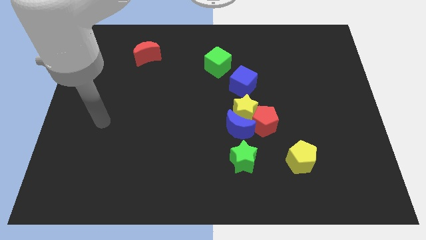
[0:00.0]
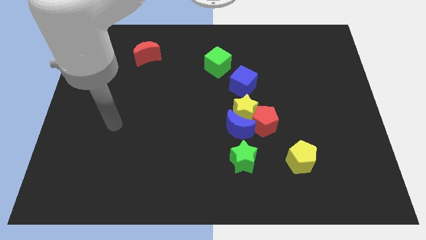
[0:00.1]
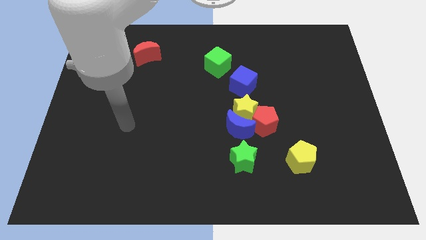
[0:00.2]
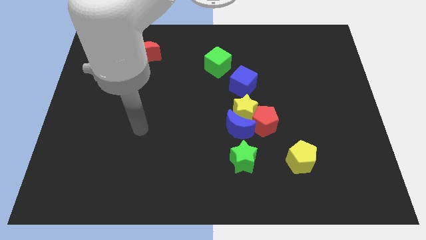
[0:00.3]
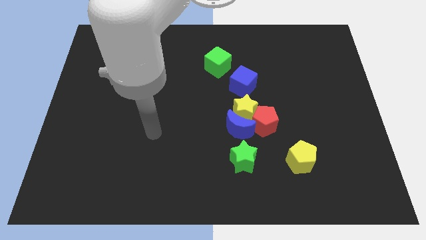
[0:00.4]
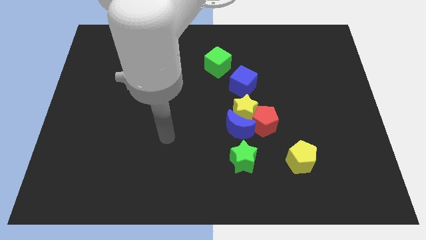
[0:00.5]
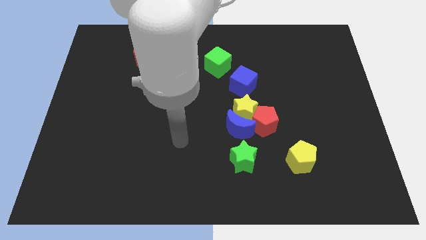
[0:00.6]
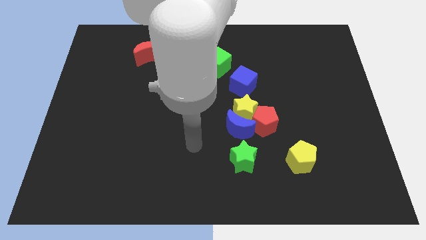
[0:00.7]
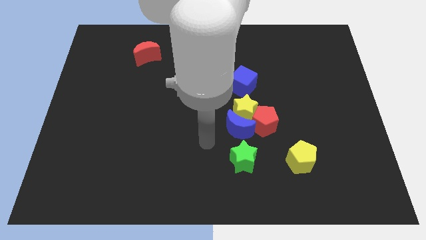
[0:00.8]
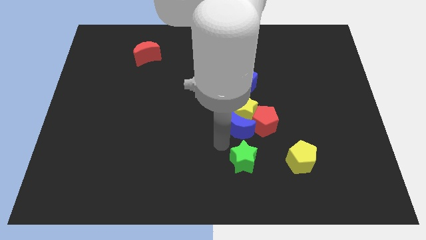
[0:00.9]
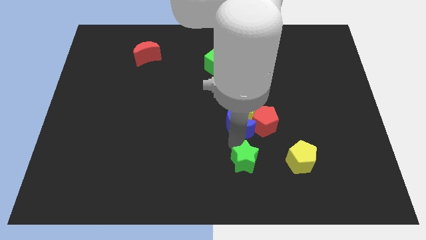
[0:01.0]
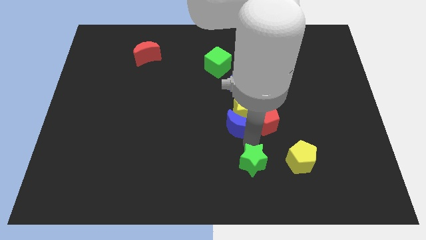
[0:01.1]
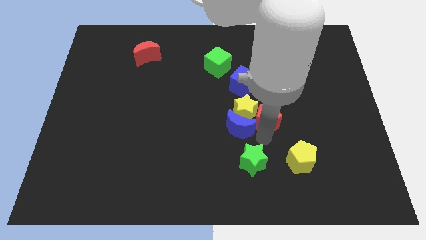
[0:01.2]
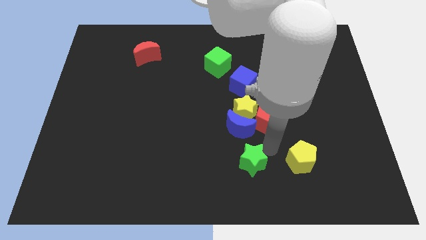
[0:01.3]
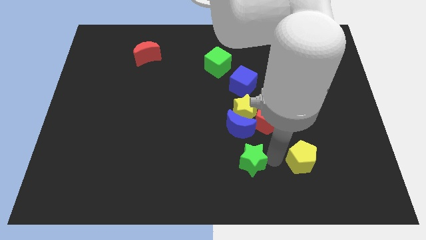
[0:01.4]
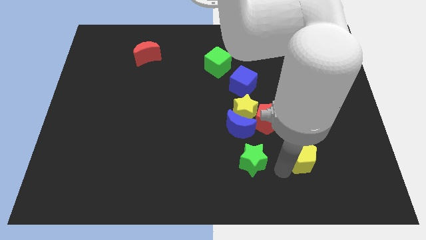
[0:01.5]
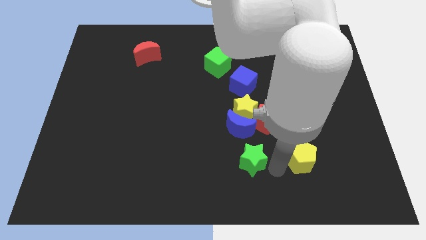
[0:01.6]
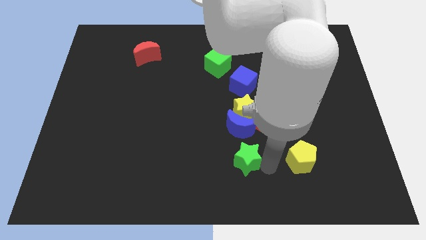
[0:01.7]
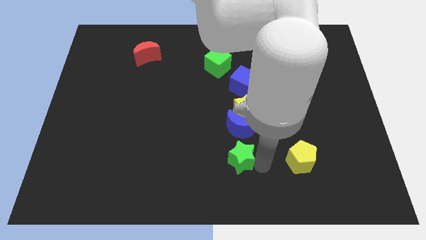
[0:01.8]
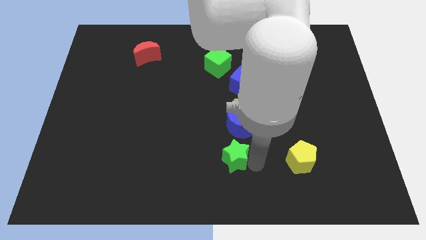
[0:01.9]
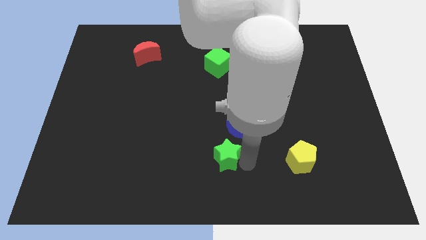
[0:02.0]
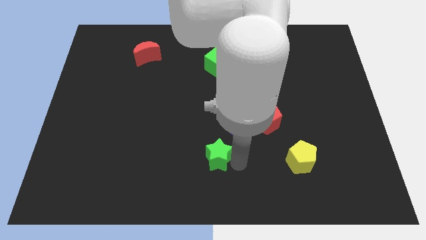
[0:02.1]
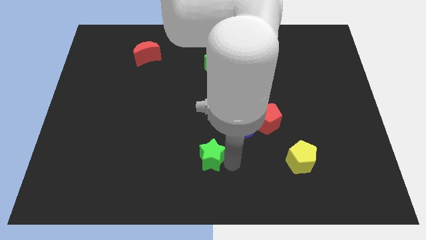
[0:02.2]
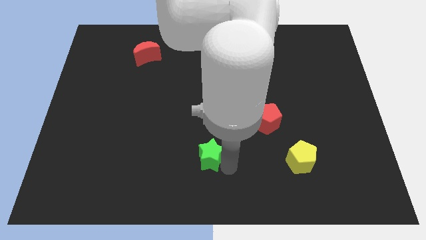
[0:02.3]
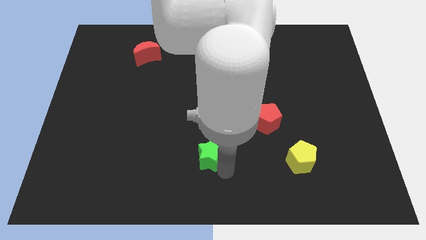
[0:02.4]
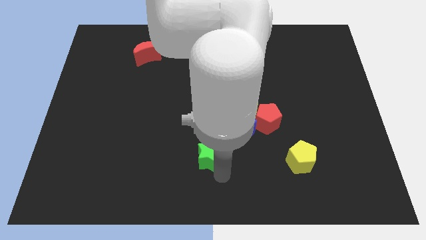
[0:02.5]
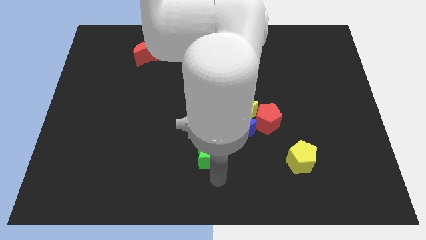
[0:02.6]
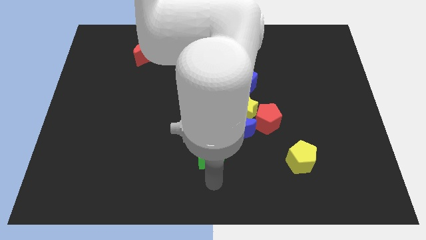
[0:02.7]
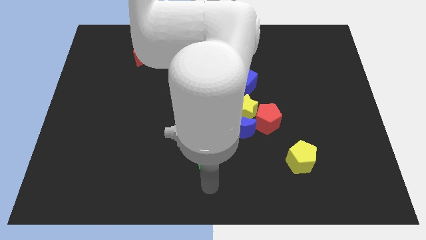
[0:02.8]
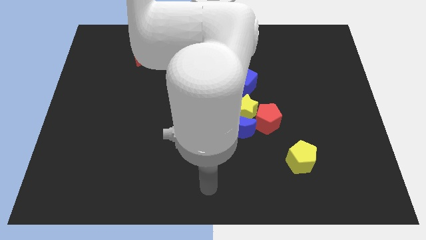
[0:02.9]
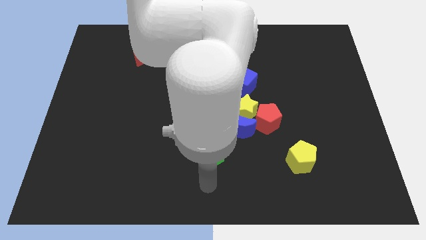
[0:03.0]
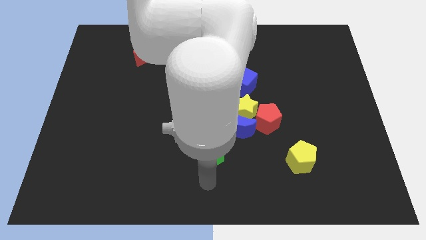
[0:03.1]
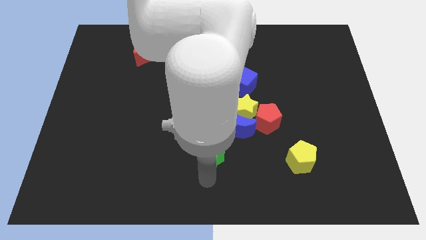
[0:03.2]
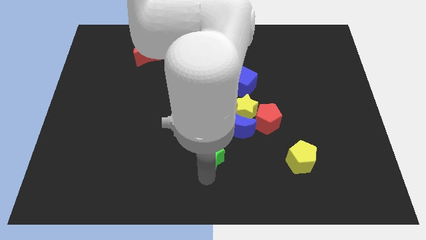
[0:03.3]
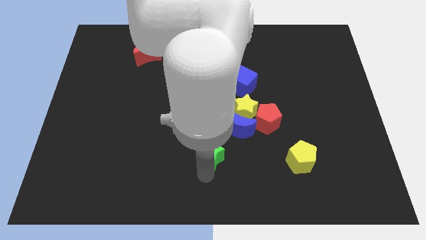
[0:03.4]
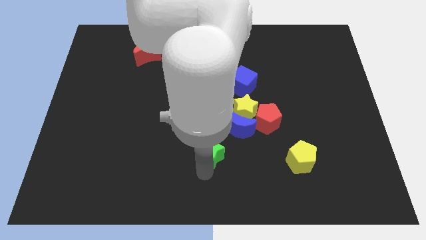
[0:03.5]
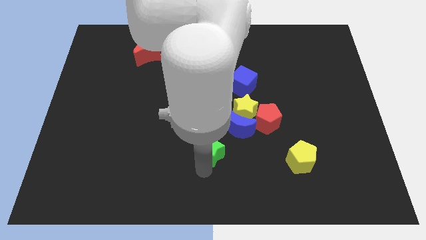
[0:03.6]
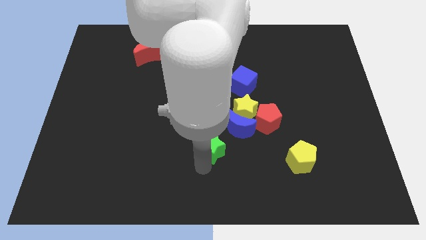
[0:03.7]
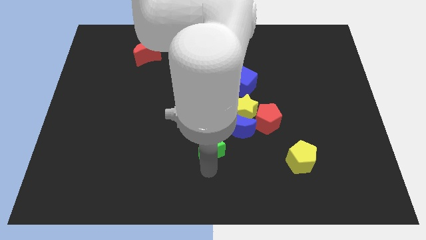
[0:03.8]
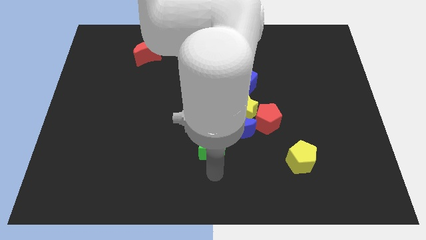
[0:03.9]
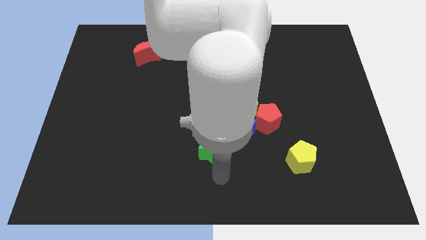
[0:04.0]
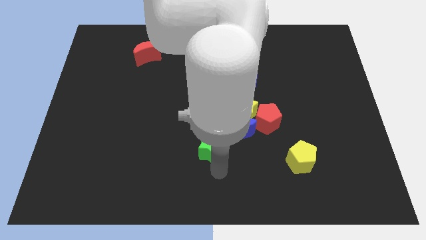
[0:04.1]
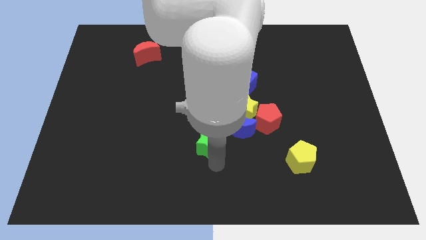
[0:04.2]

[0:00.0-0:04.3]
push the green star upwards and left a bit

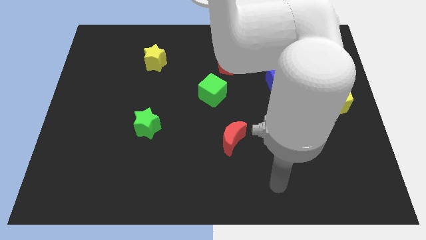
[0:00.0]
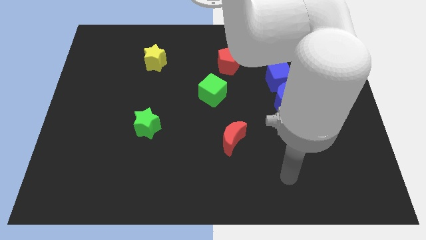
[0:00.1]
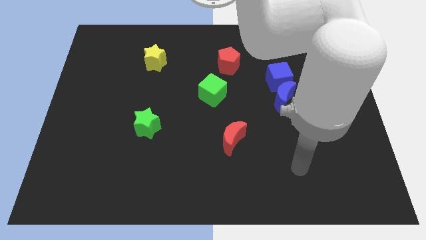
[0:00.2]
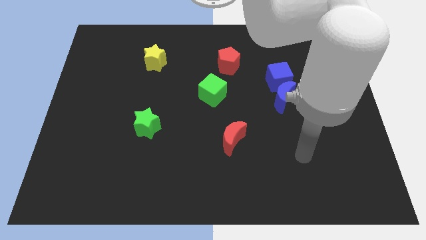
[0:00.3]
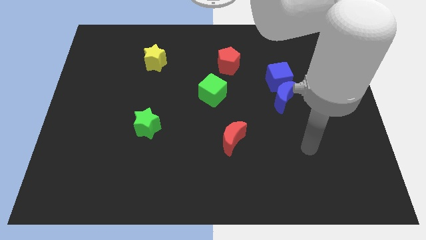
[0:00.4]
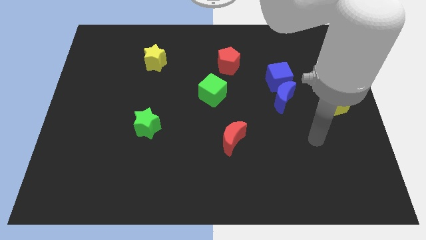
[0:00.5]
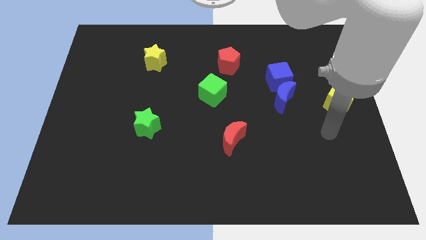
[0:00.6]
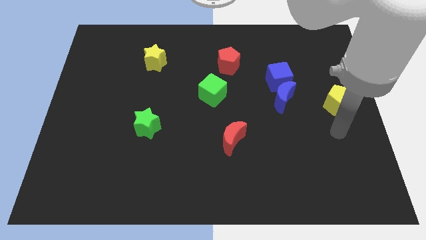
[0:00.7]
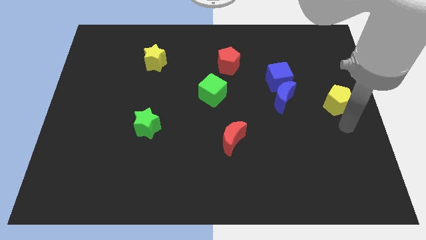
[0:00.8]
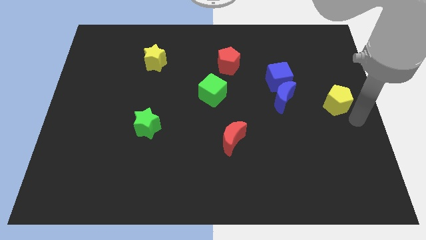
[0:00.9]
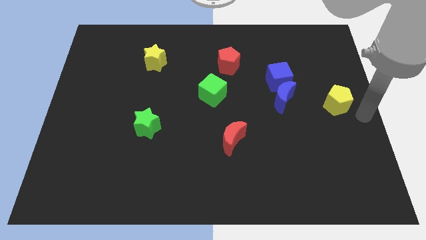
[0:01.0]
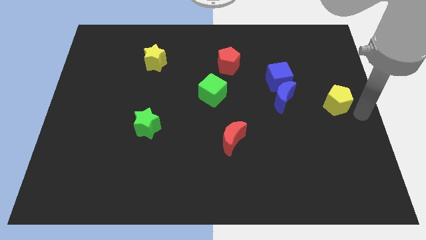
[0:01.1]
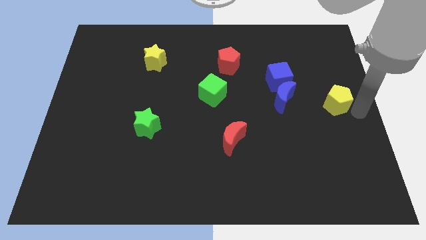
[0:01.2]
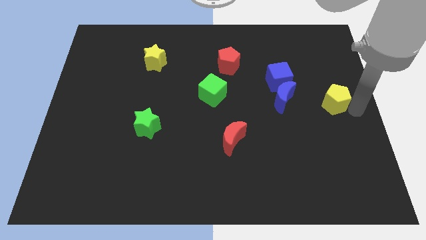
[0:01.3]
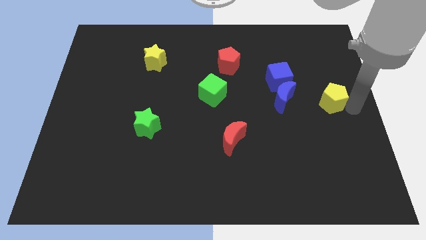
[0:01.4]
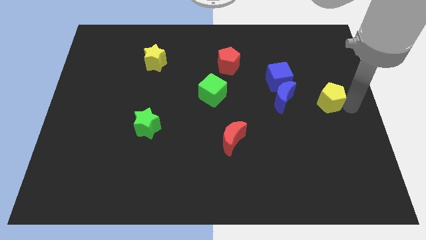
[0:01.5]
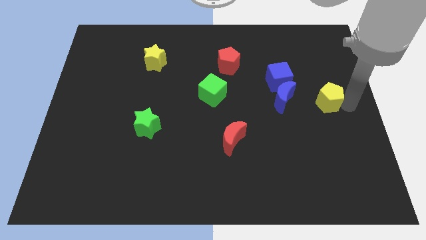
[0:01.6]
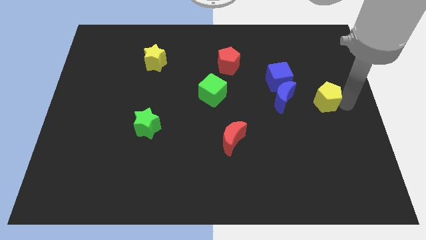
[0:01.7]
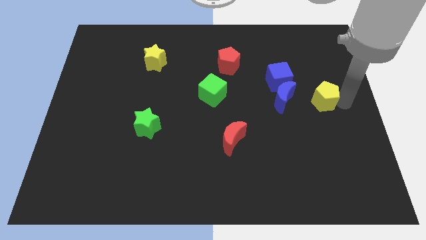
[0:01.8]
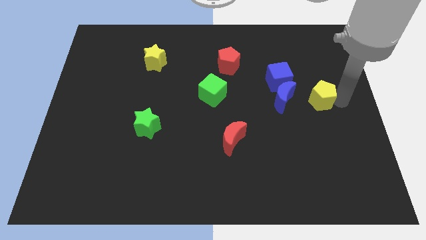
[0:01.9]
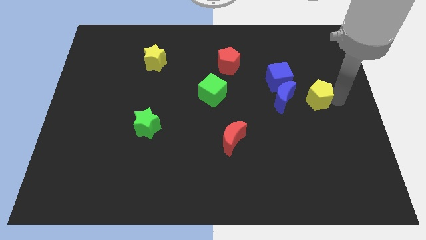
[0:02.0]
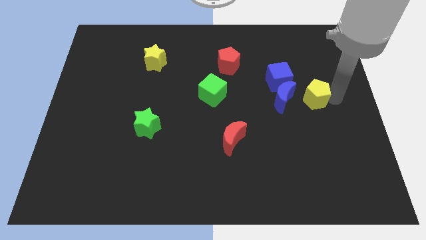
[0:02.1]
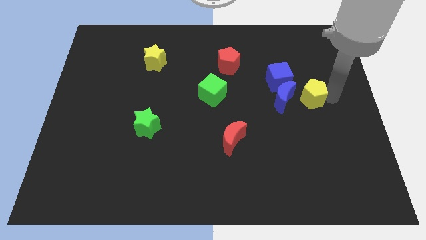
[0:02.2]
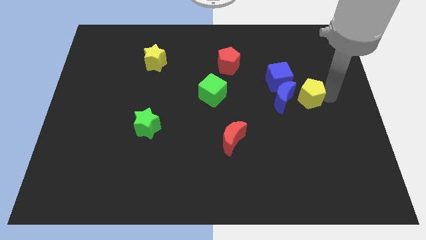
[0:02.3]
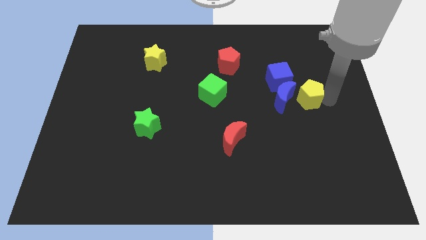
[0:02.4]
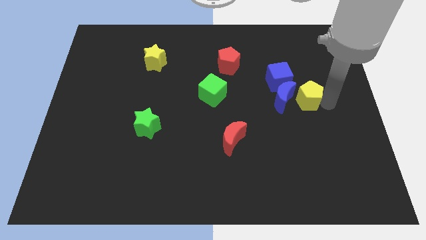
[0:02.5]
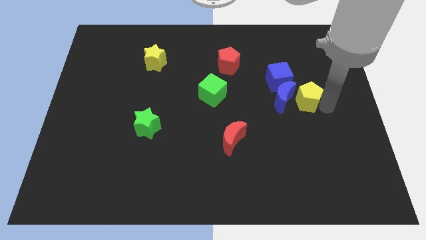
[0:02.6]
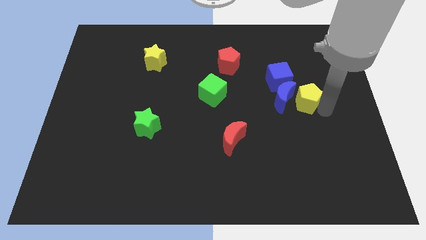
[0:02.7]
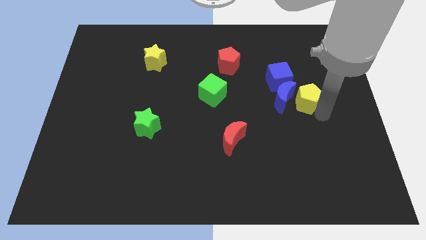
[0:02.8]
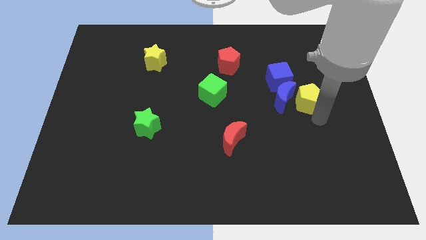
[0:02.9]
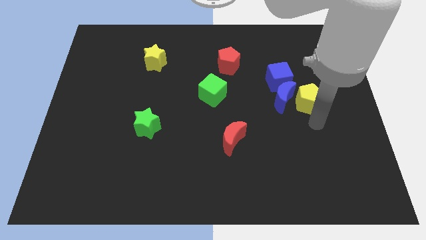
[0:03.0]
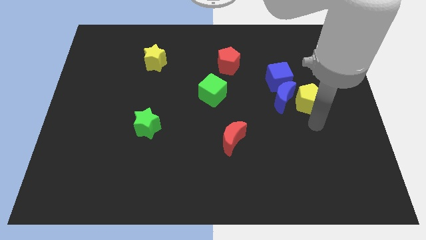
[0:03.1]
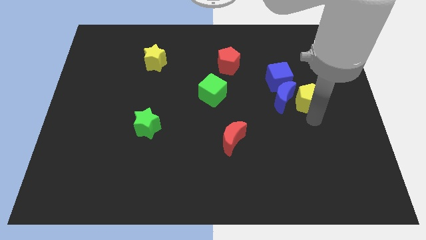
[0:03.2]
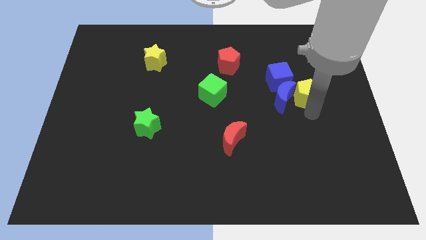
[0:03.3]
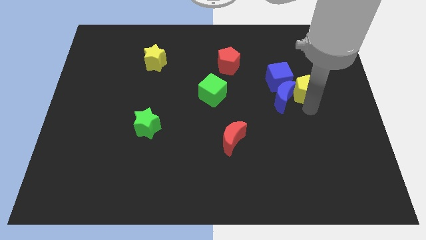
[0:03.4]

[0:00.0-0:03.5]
slide the yellow pentagon slightly upwards and to the left
